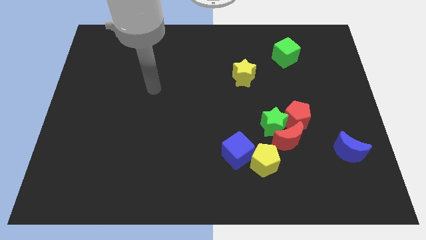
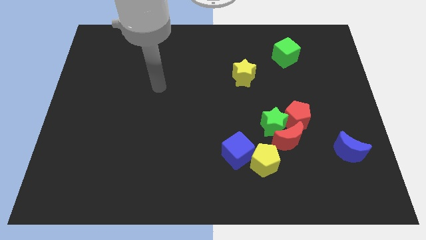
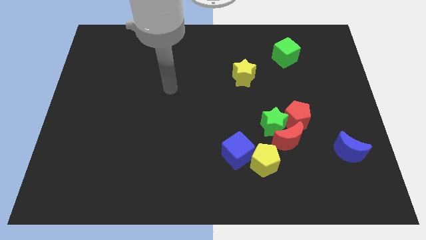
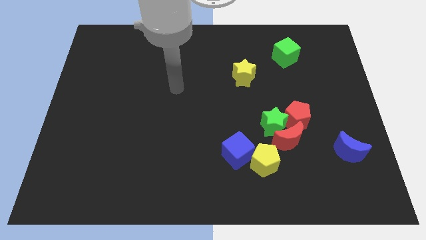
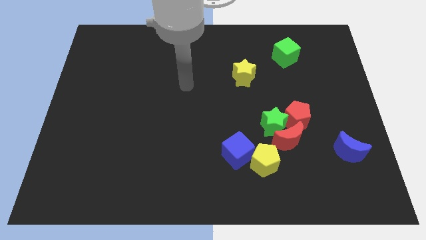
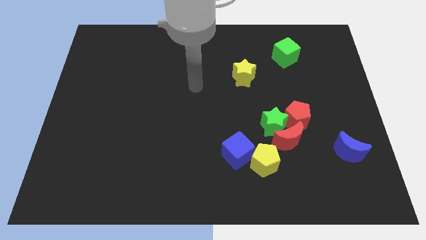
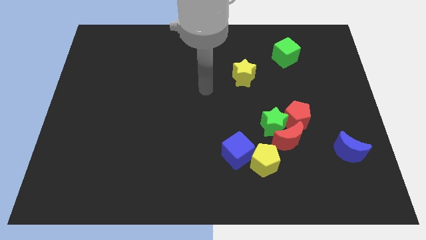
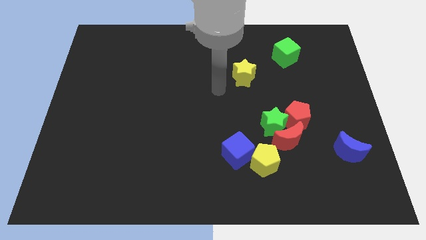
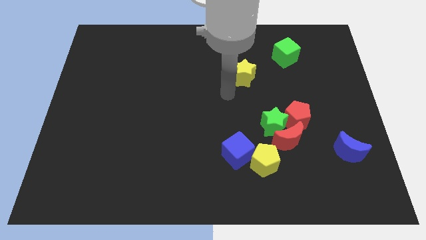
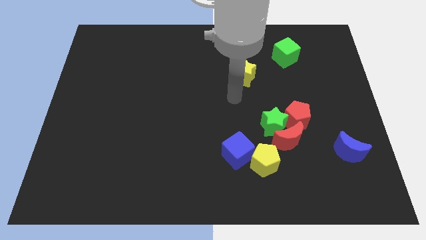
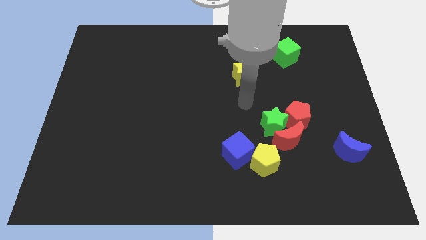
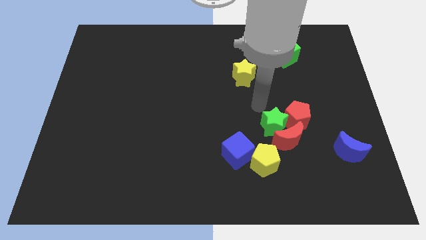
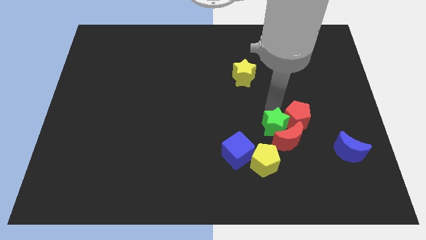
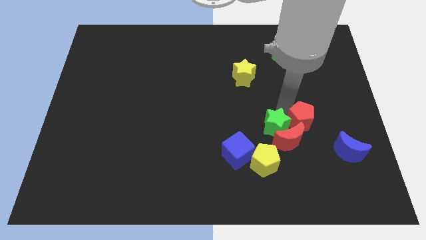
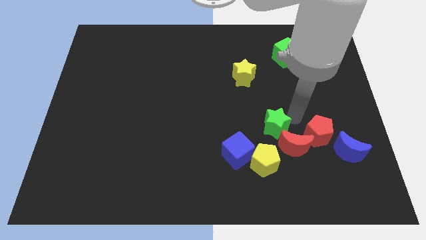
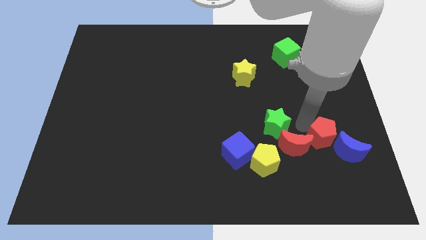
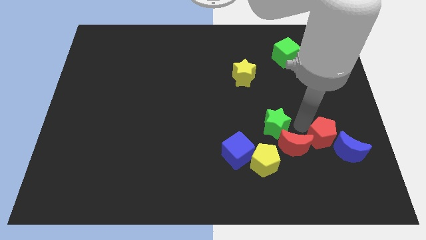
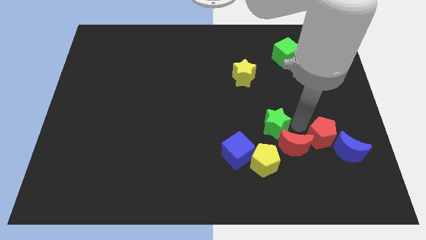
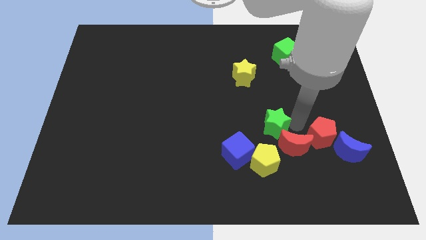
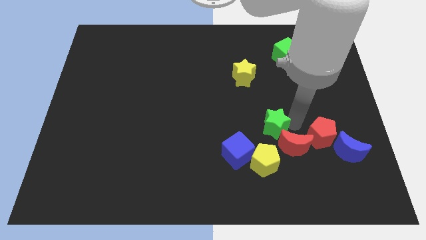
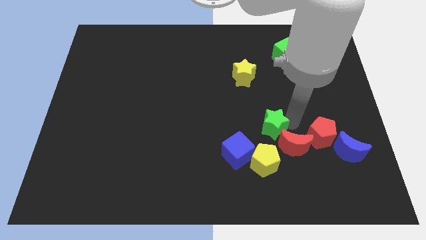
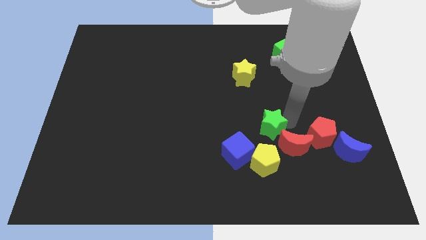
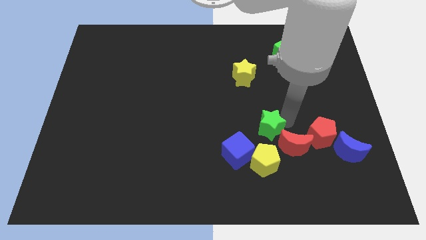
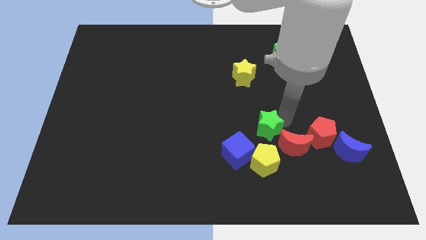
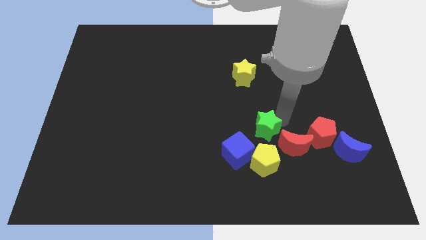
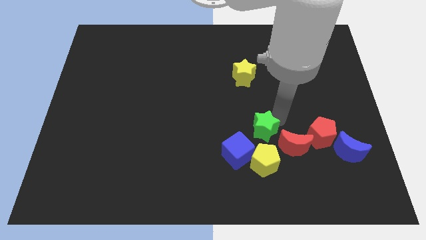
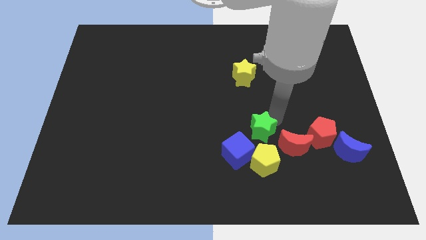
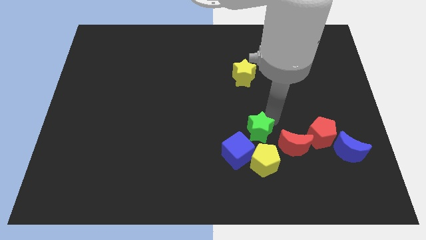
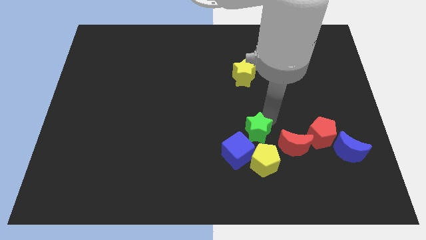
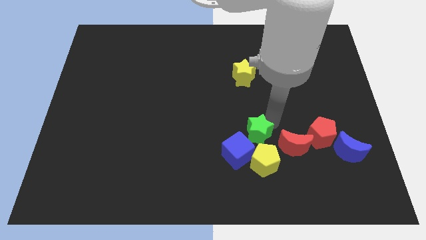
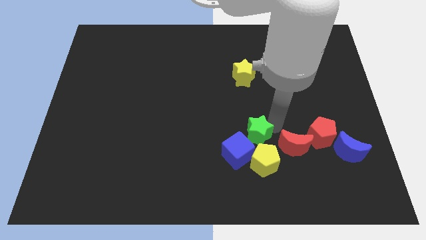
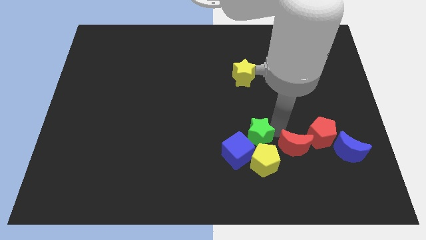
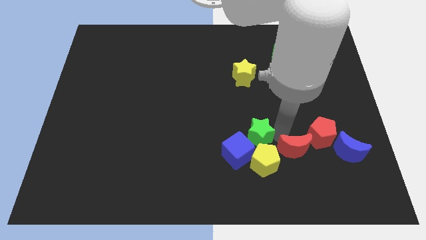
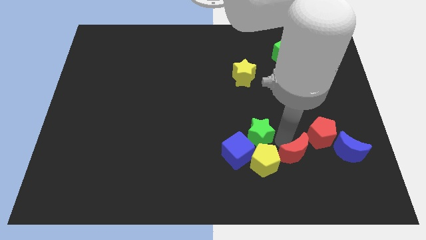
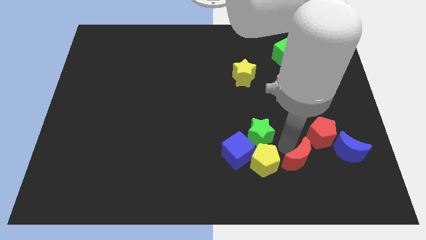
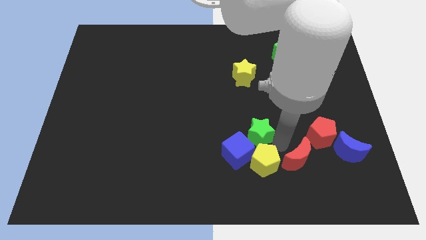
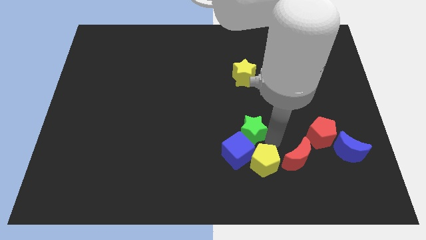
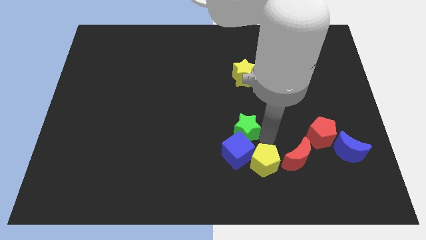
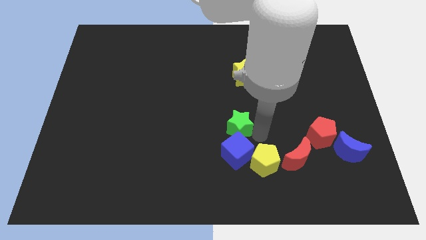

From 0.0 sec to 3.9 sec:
slightly move the green star left

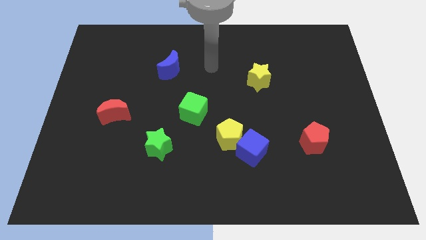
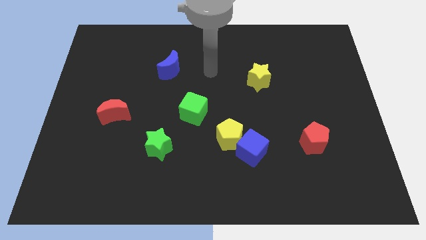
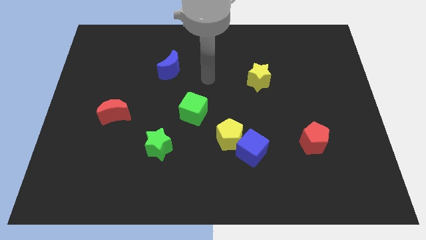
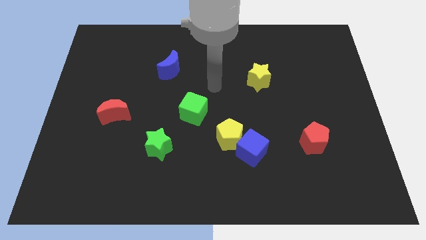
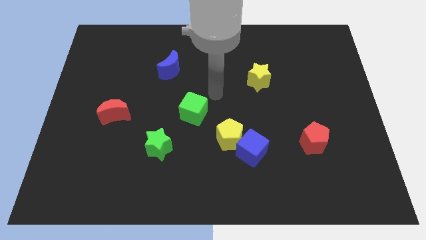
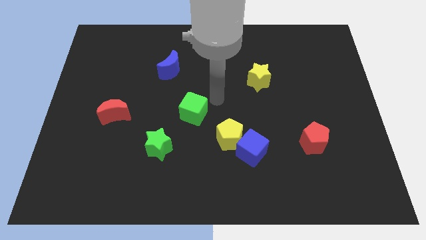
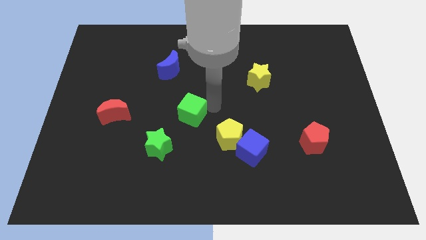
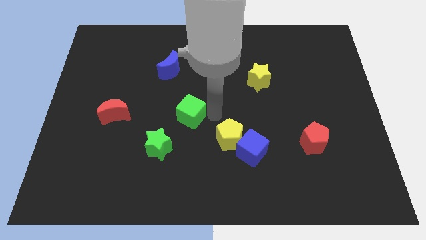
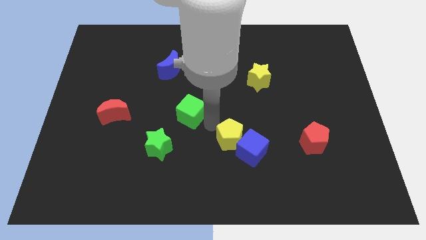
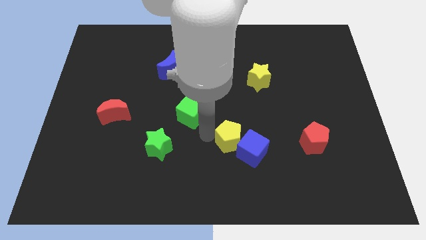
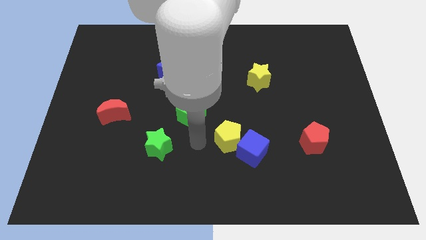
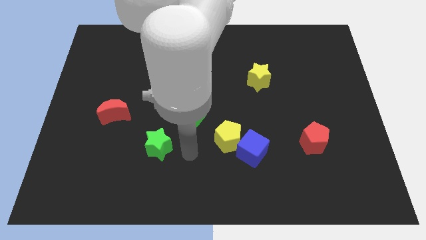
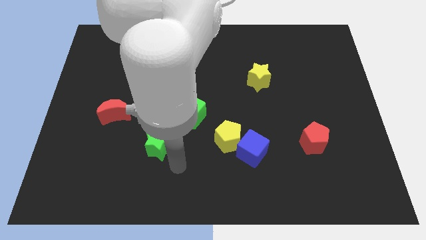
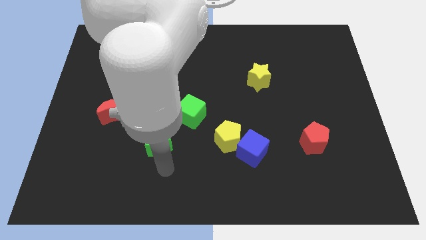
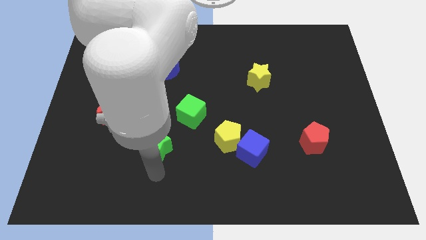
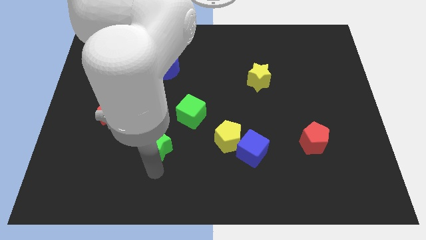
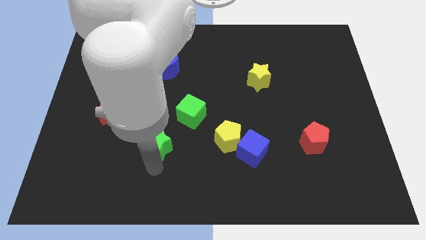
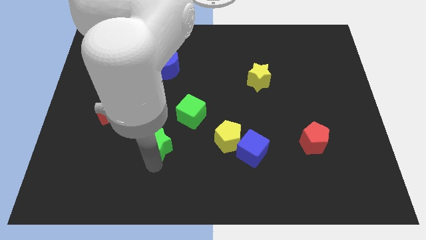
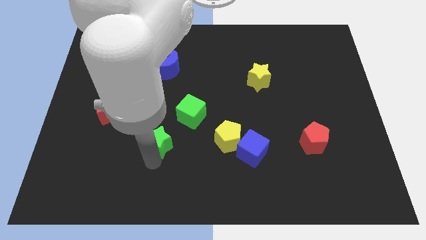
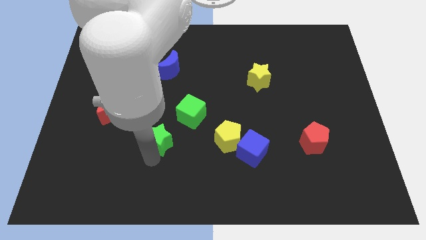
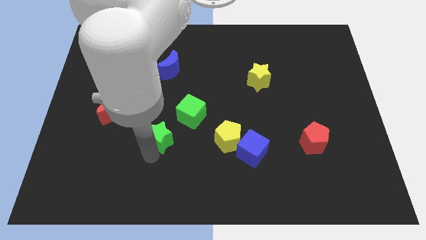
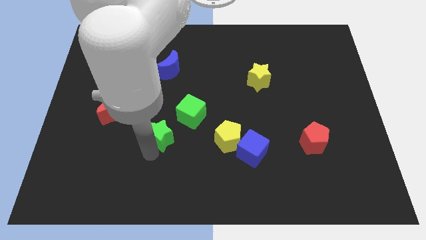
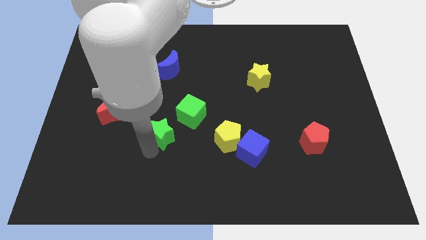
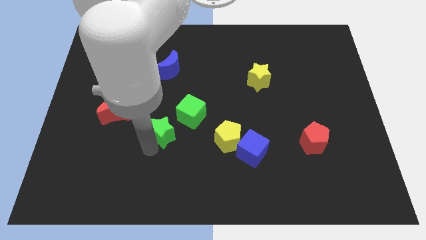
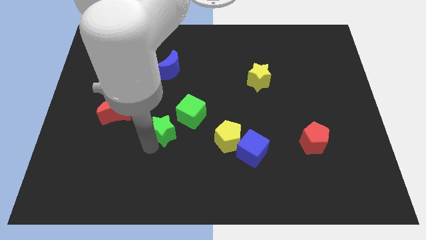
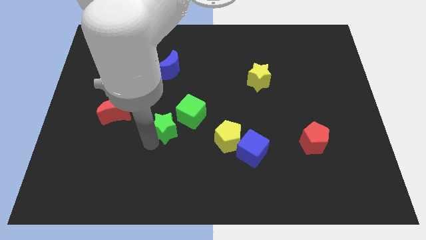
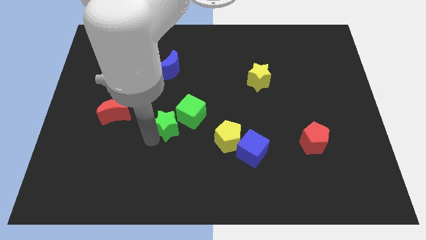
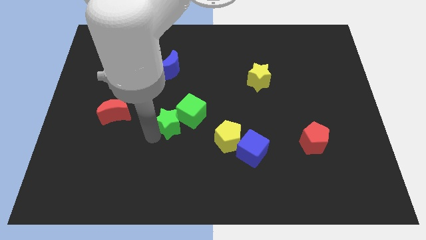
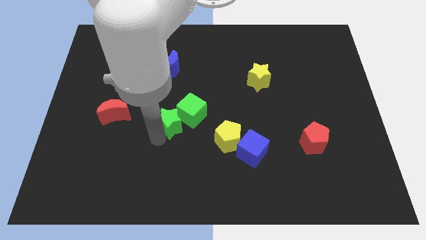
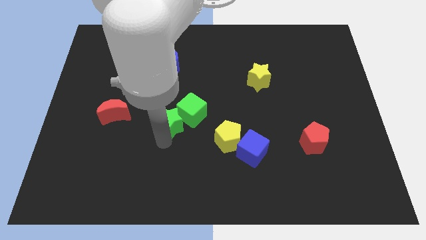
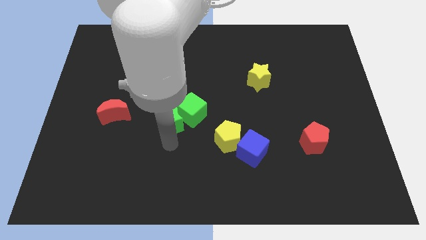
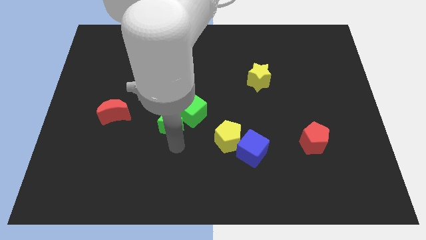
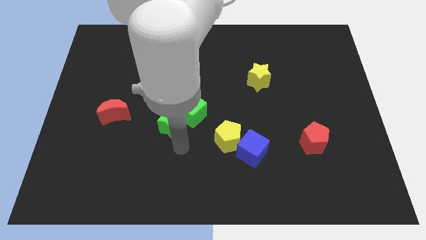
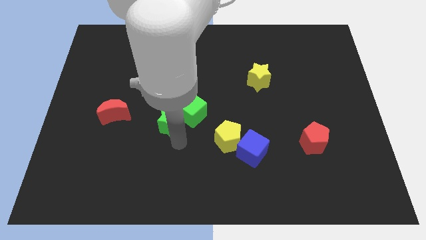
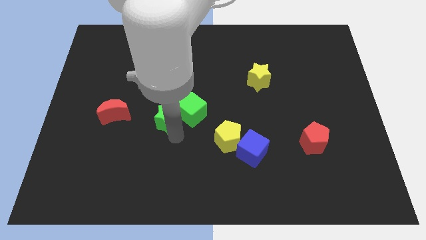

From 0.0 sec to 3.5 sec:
slightly slide the green star up

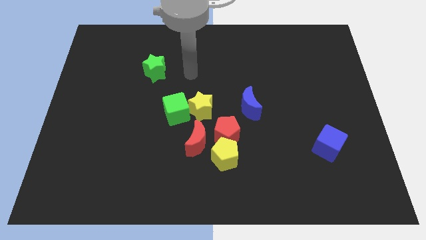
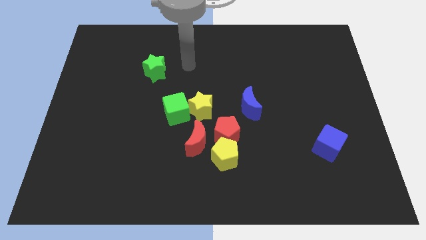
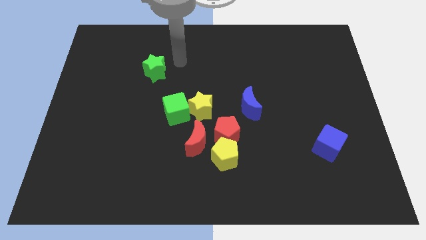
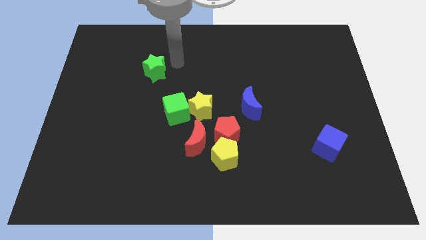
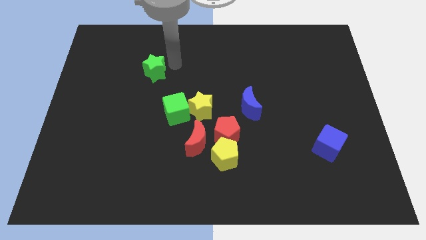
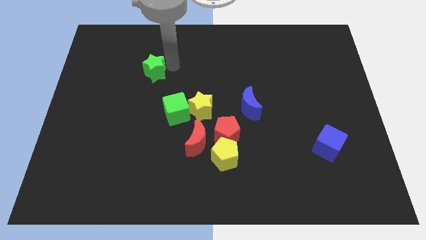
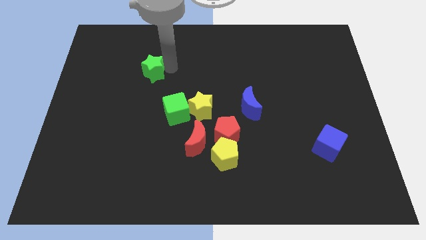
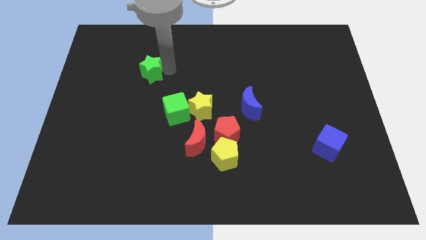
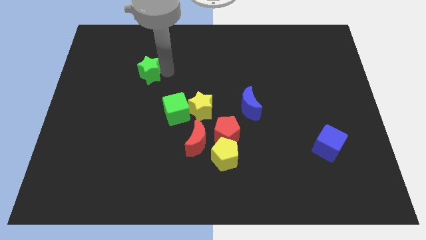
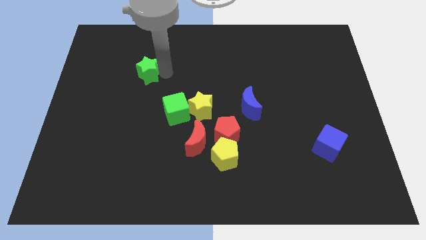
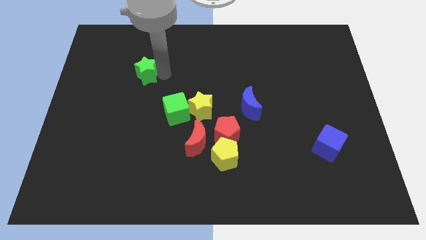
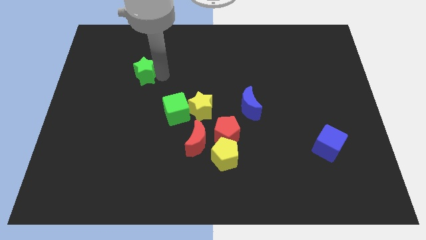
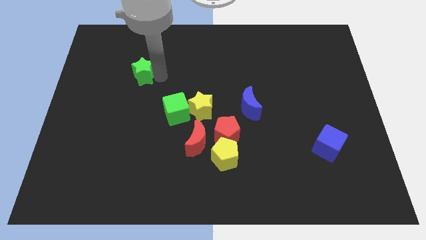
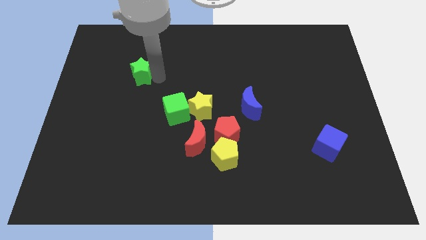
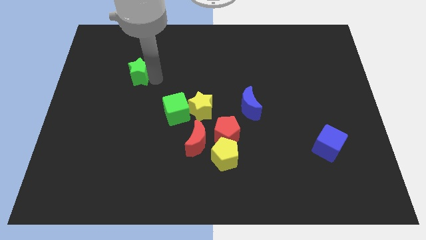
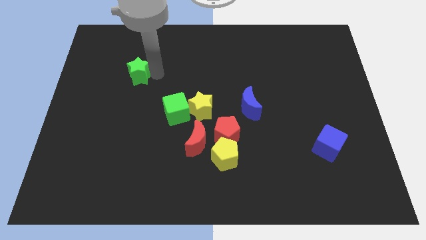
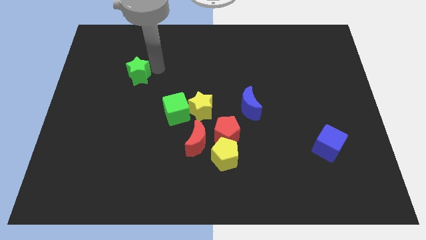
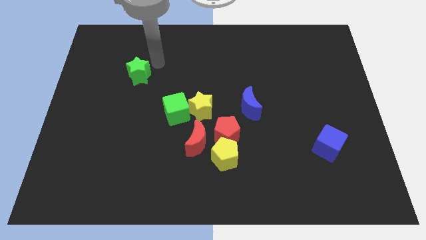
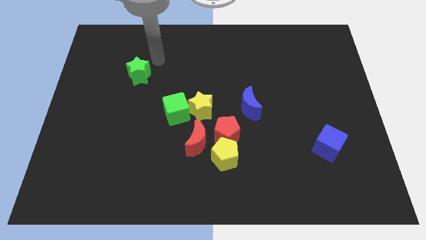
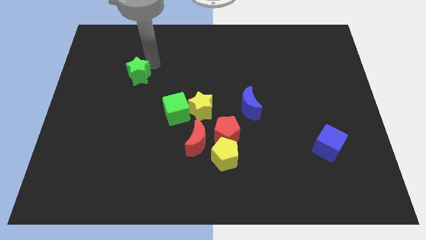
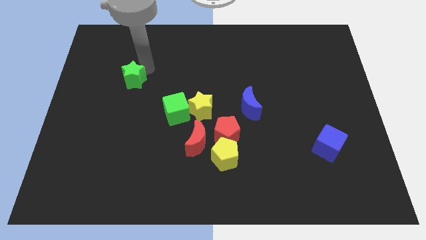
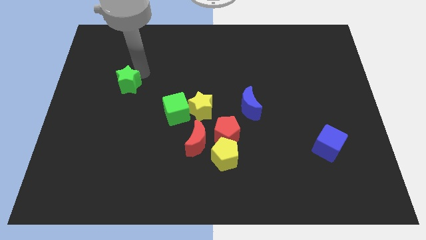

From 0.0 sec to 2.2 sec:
move the green star diagonally down and to the left a little
